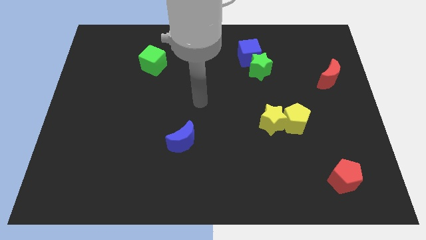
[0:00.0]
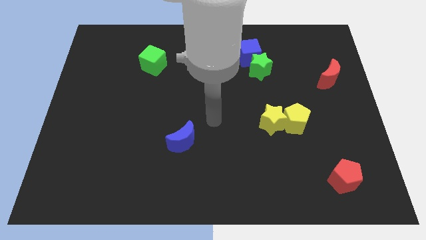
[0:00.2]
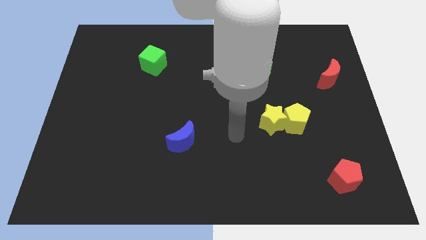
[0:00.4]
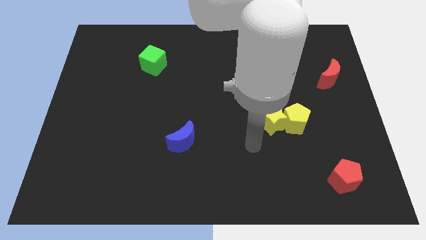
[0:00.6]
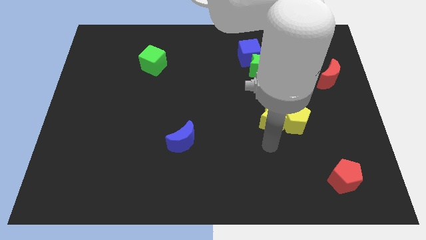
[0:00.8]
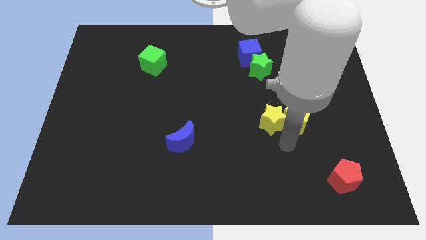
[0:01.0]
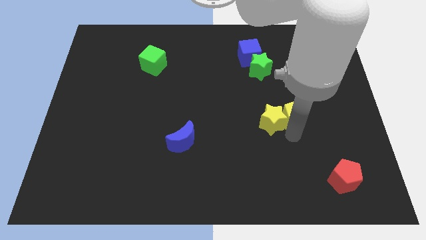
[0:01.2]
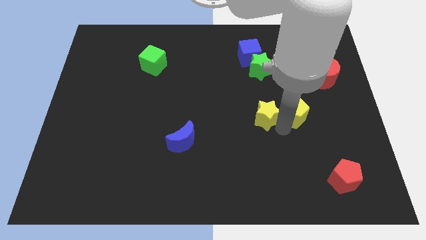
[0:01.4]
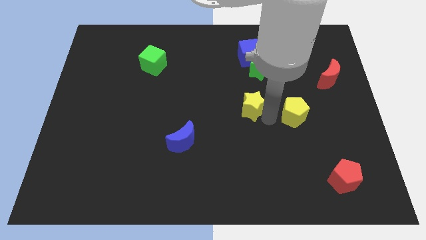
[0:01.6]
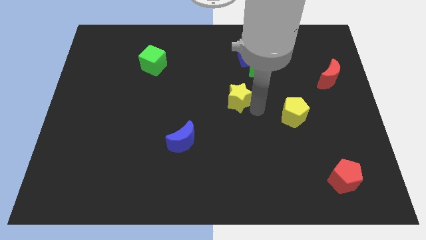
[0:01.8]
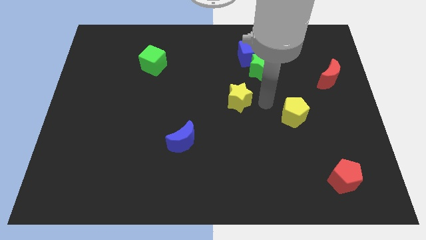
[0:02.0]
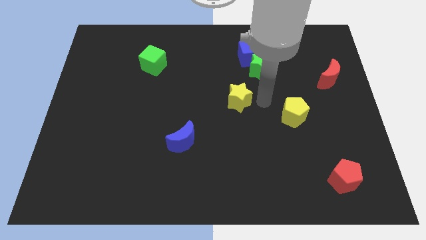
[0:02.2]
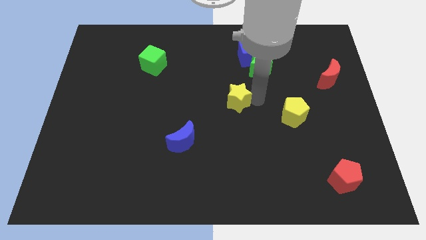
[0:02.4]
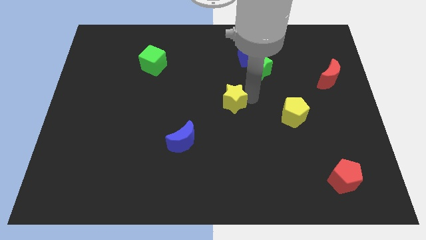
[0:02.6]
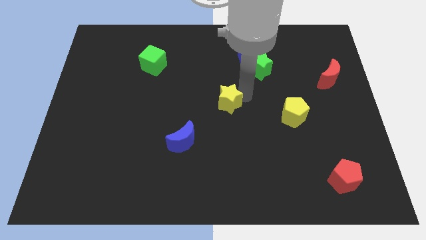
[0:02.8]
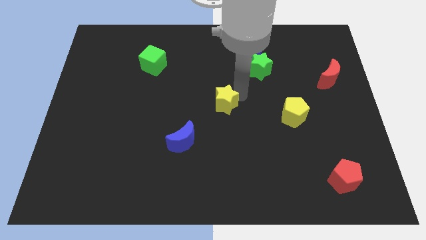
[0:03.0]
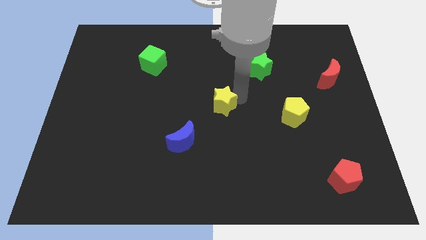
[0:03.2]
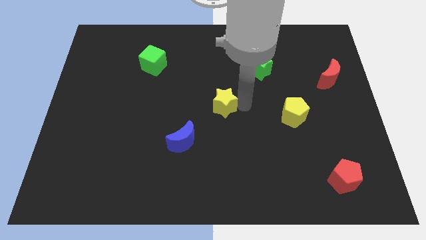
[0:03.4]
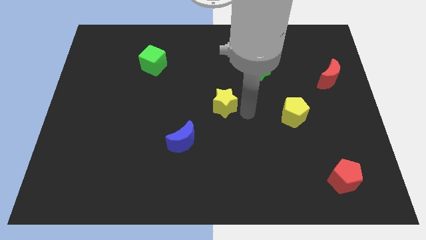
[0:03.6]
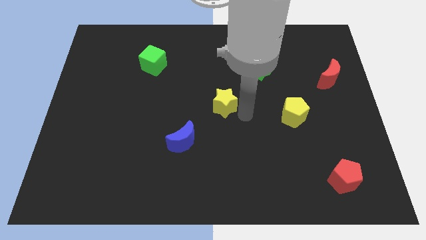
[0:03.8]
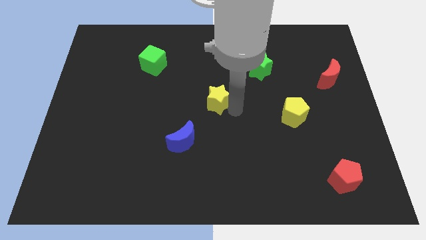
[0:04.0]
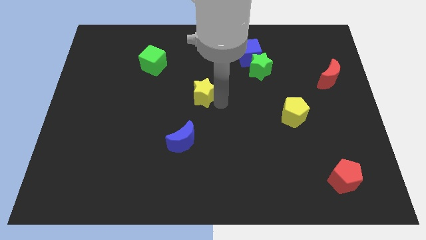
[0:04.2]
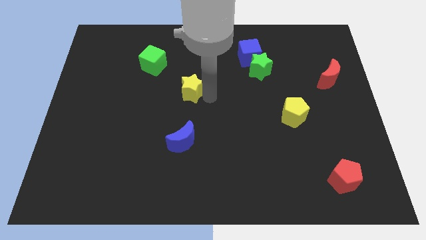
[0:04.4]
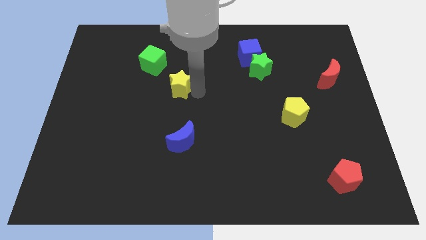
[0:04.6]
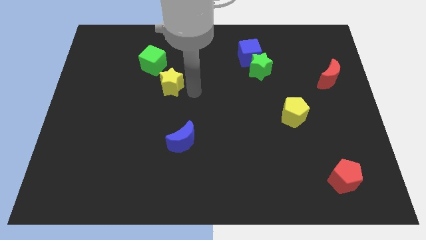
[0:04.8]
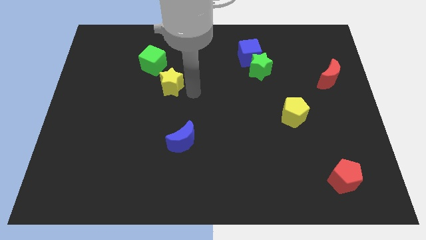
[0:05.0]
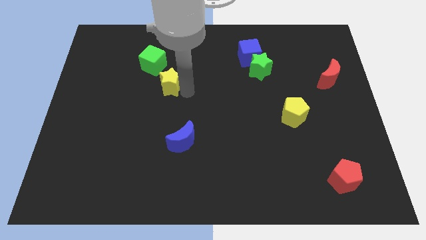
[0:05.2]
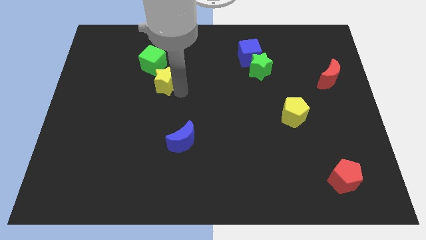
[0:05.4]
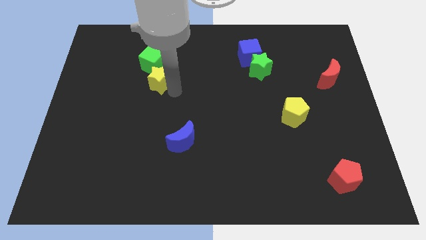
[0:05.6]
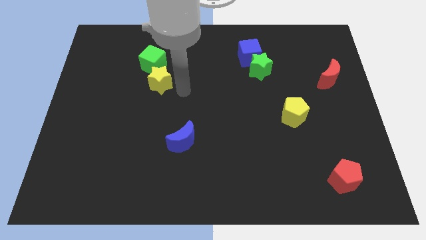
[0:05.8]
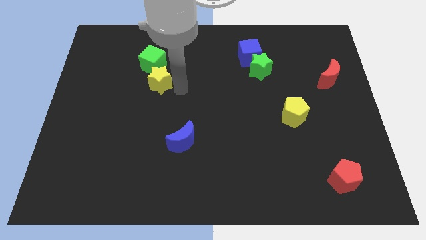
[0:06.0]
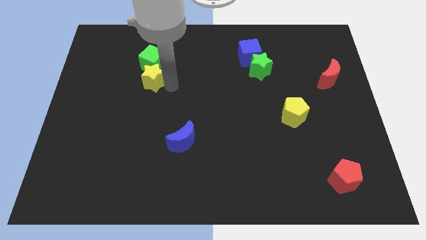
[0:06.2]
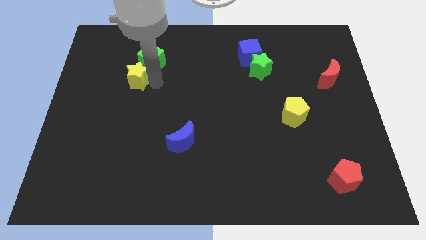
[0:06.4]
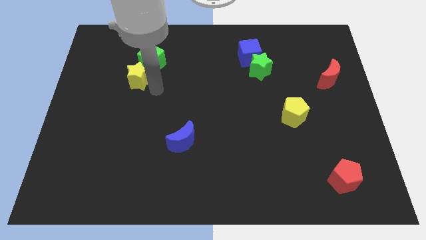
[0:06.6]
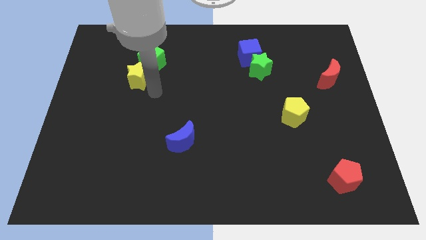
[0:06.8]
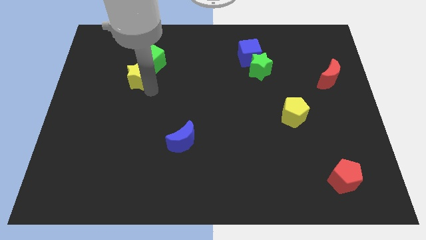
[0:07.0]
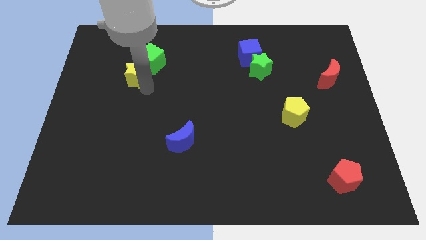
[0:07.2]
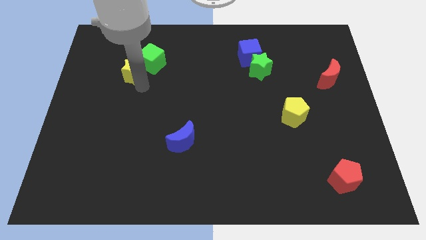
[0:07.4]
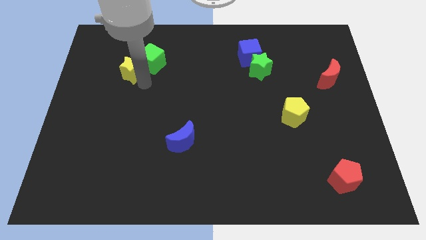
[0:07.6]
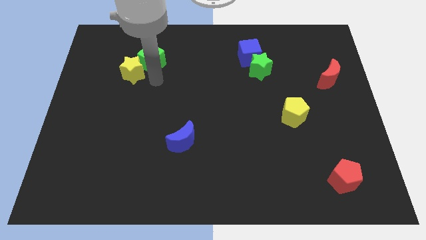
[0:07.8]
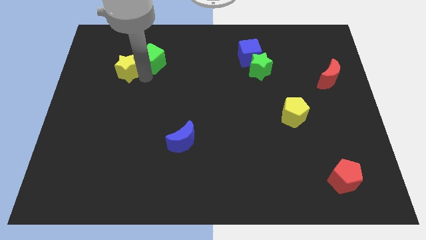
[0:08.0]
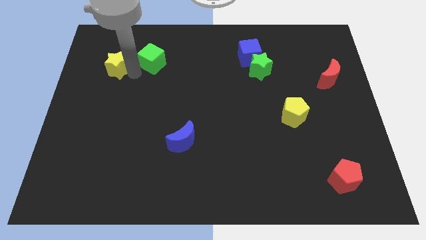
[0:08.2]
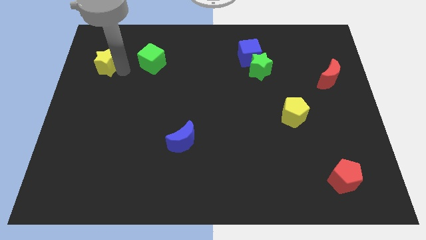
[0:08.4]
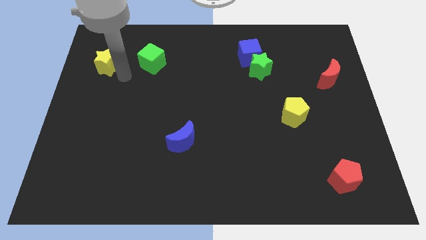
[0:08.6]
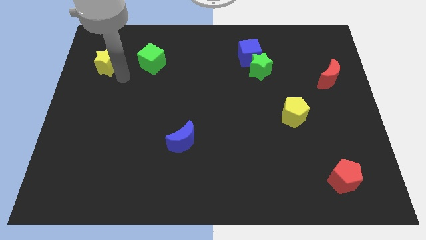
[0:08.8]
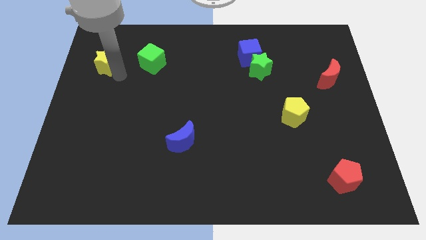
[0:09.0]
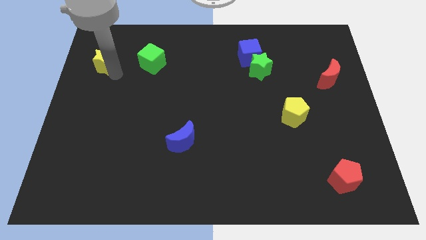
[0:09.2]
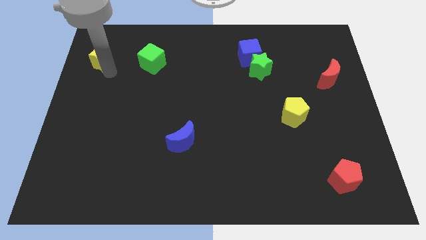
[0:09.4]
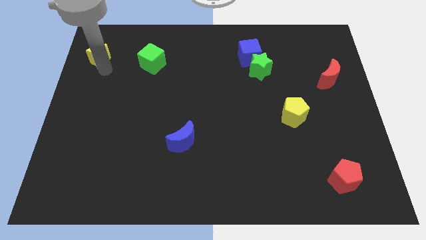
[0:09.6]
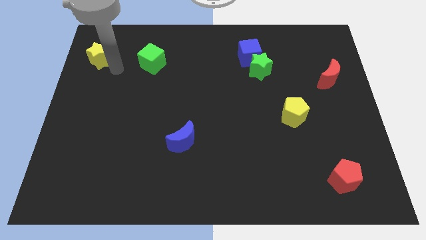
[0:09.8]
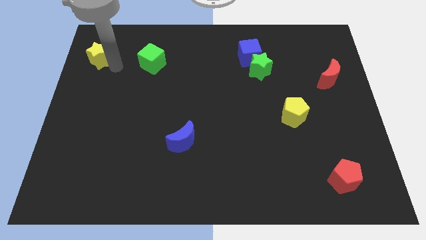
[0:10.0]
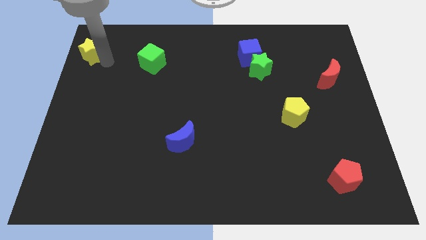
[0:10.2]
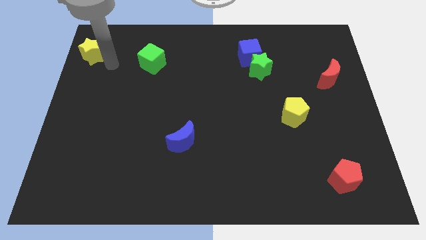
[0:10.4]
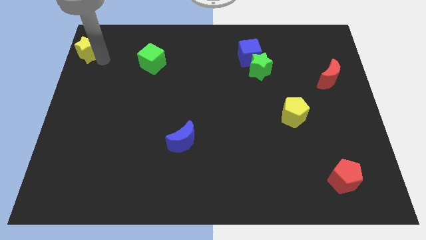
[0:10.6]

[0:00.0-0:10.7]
push the yellow star to the top left
